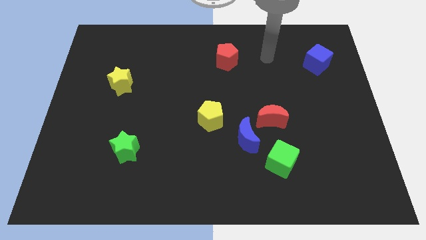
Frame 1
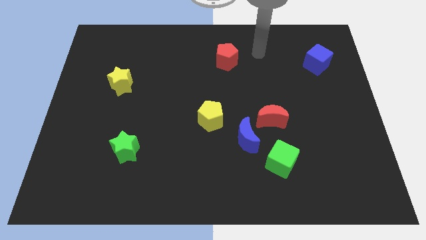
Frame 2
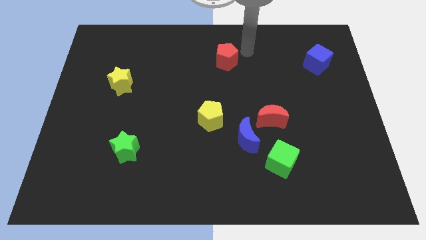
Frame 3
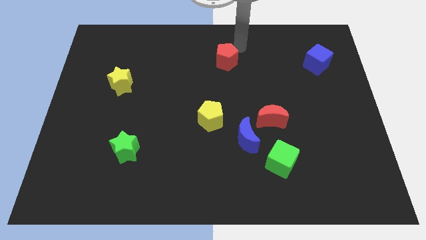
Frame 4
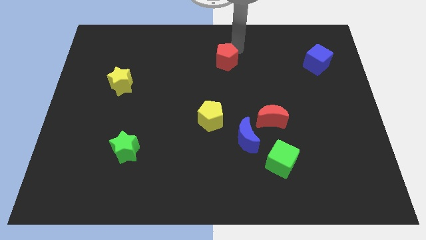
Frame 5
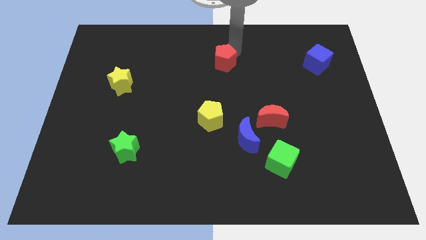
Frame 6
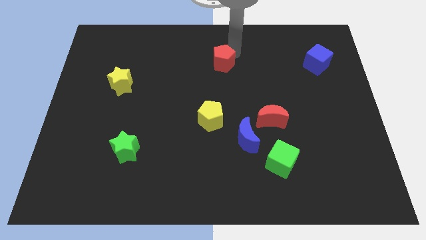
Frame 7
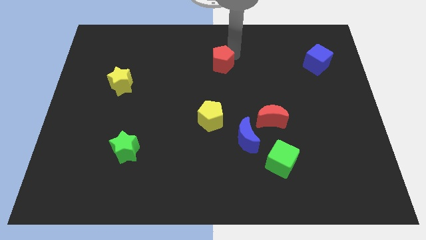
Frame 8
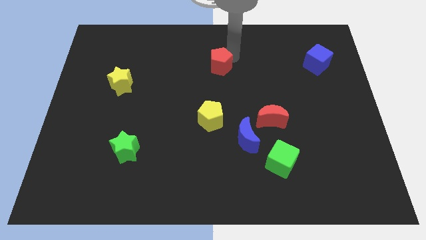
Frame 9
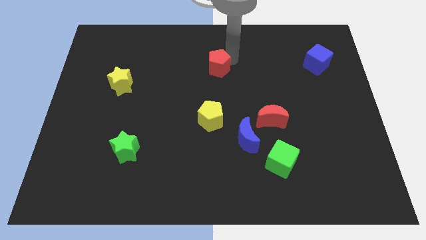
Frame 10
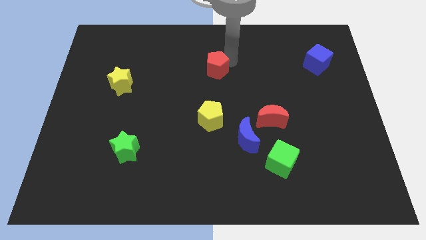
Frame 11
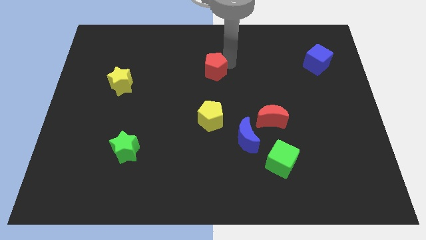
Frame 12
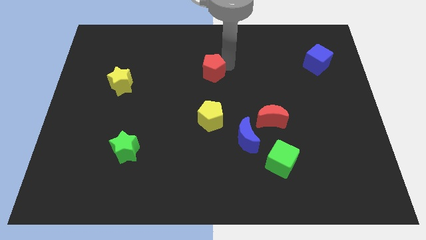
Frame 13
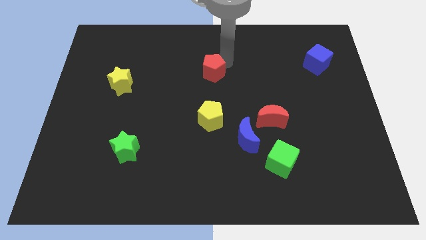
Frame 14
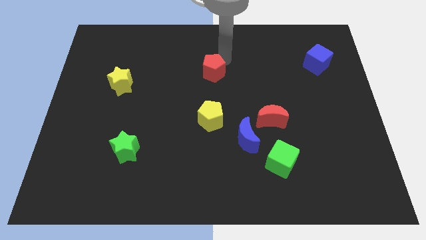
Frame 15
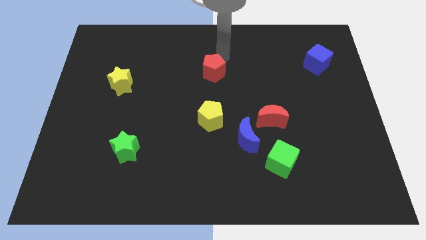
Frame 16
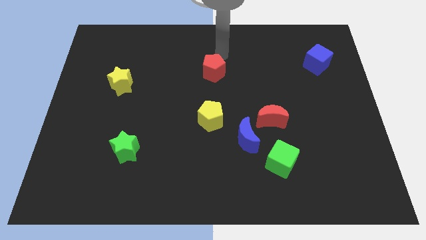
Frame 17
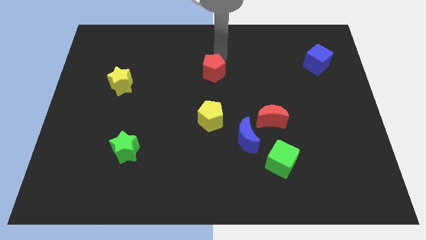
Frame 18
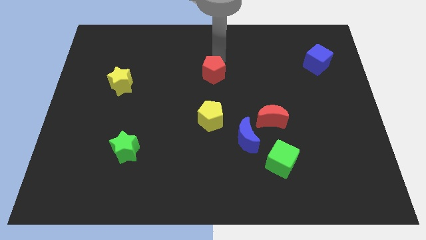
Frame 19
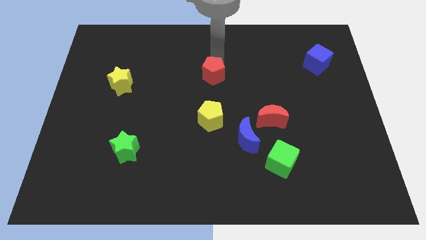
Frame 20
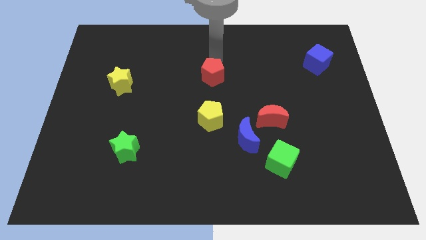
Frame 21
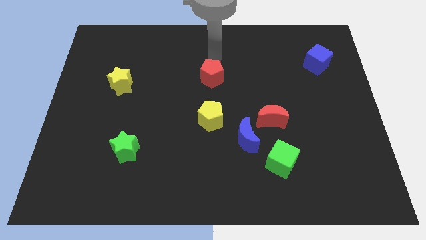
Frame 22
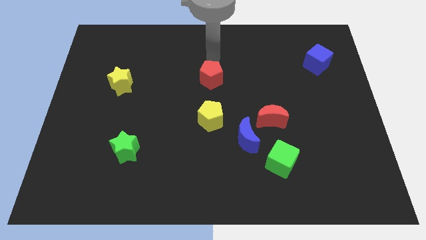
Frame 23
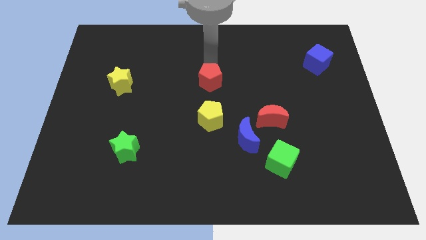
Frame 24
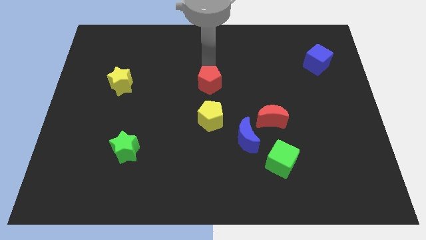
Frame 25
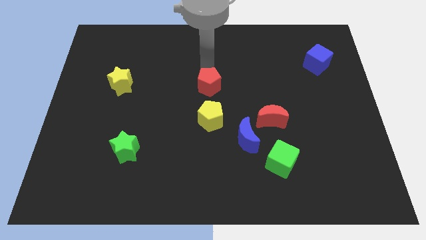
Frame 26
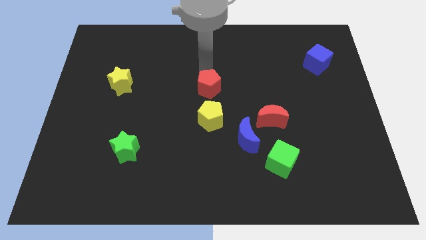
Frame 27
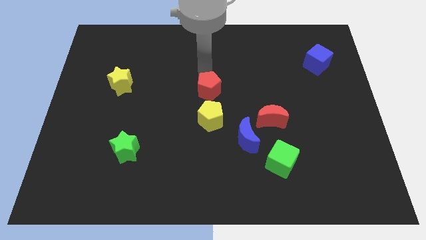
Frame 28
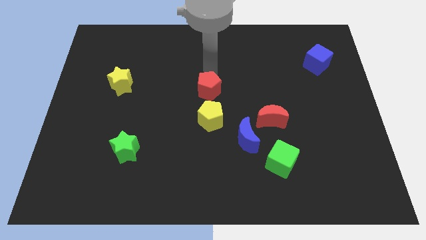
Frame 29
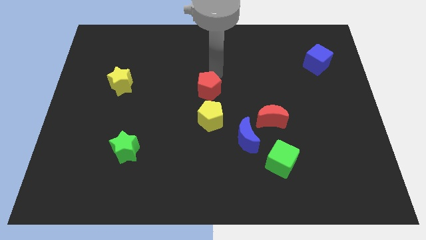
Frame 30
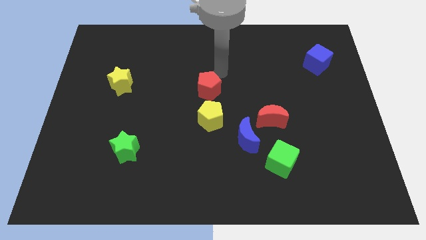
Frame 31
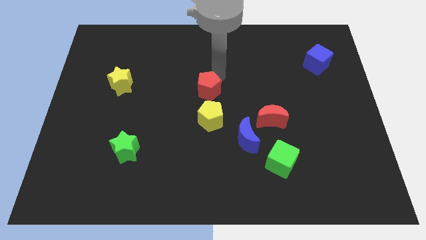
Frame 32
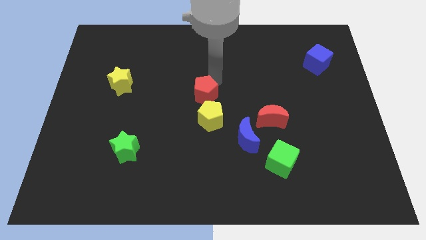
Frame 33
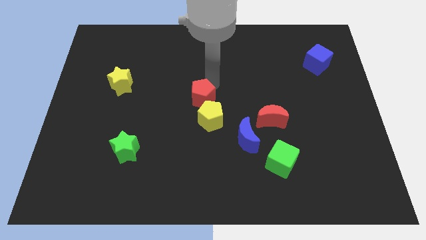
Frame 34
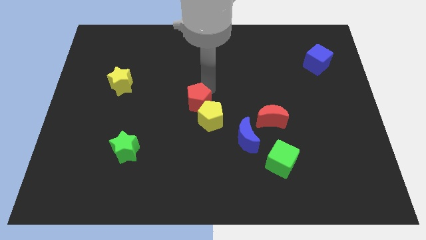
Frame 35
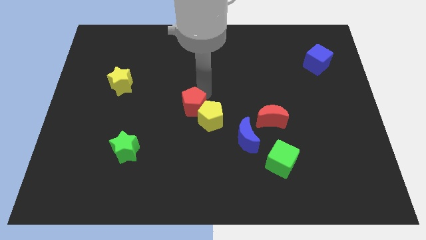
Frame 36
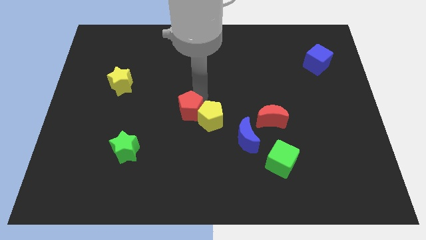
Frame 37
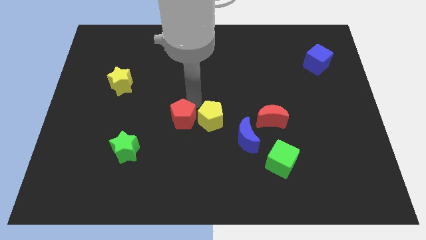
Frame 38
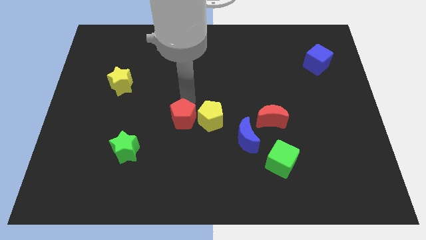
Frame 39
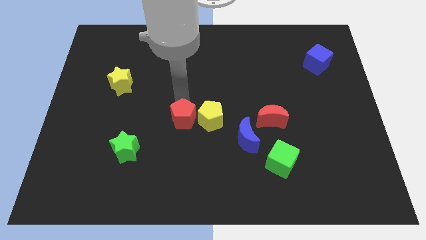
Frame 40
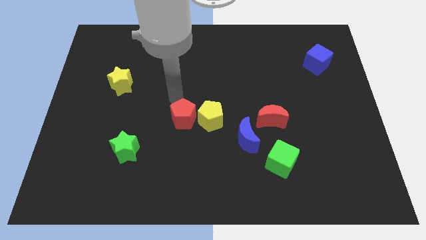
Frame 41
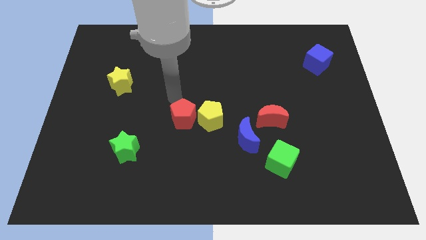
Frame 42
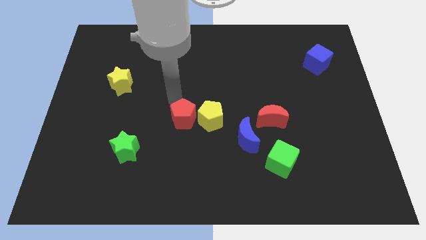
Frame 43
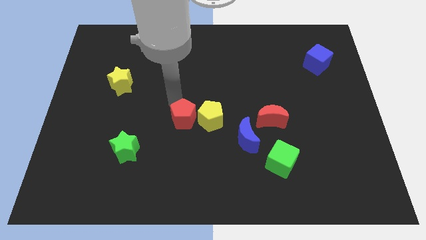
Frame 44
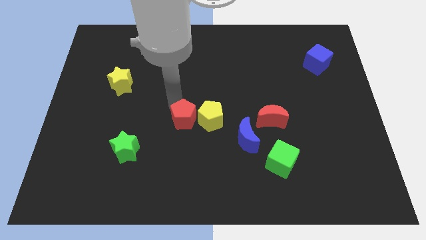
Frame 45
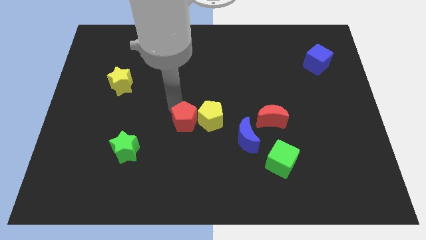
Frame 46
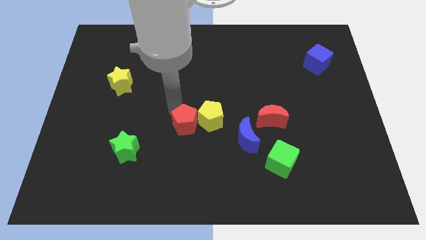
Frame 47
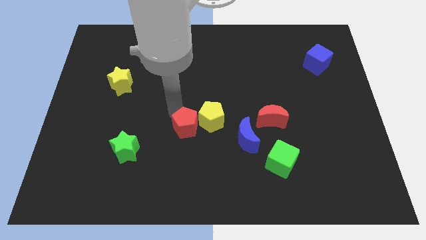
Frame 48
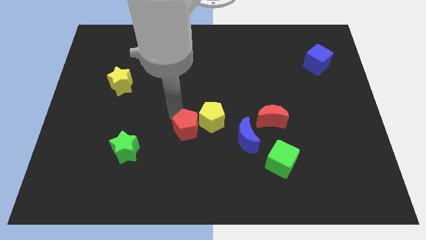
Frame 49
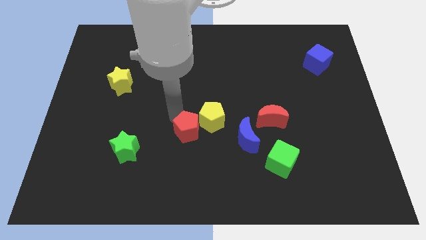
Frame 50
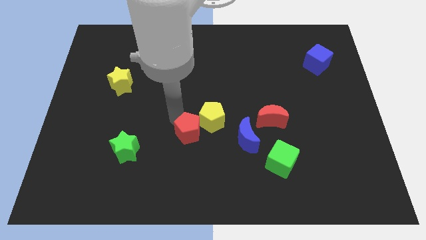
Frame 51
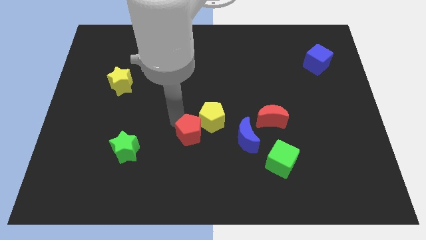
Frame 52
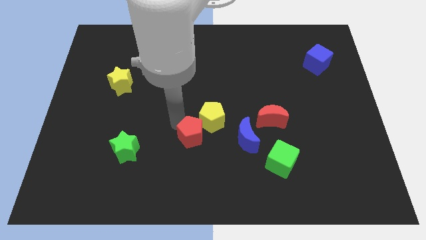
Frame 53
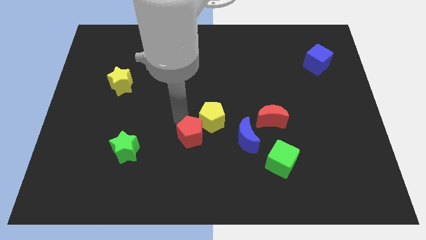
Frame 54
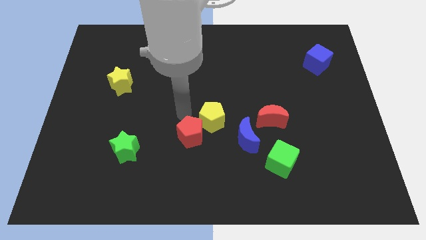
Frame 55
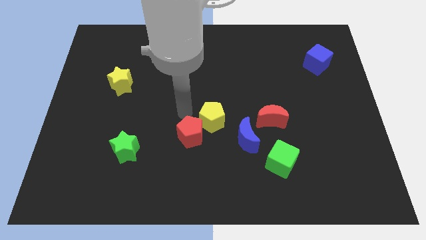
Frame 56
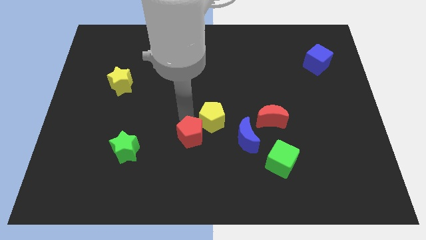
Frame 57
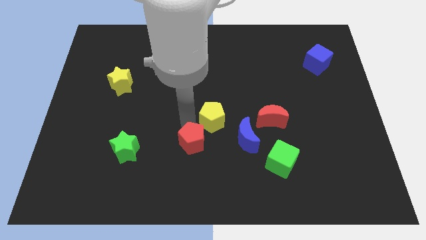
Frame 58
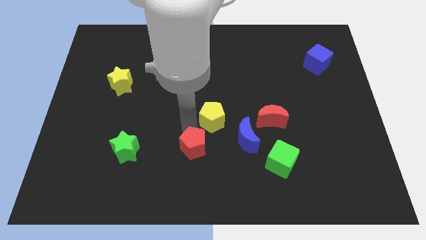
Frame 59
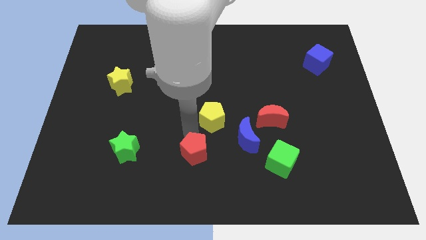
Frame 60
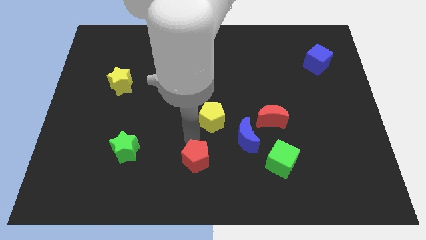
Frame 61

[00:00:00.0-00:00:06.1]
move the red pentagon to the bottom side
